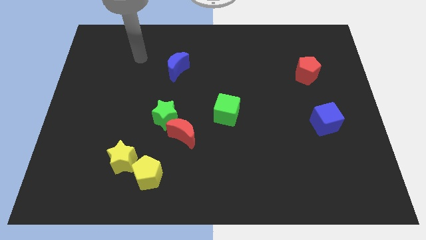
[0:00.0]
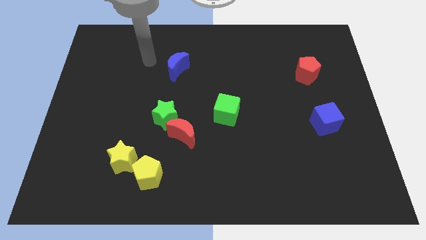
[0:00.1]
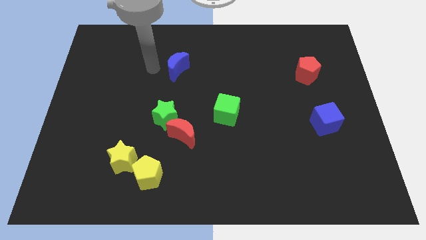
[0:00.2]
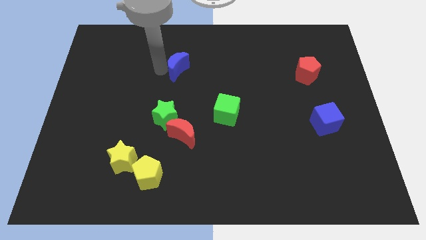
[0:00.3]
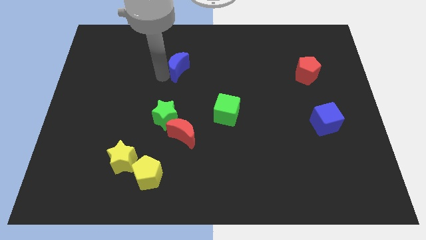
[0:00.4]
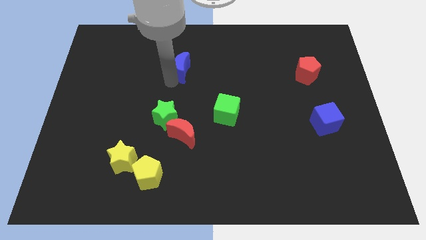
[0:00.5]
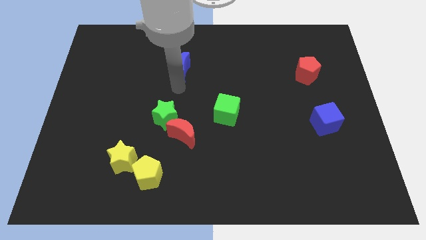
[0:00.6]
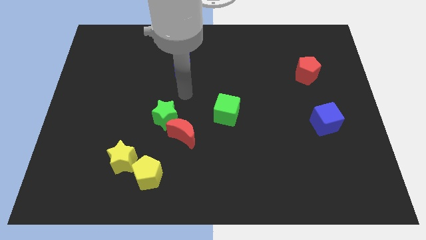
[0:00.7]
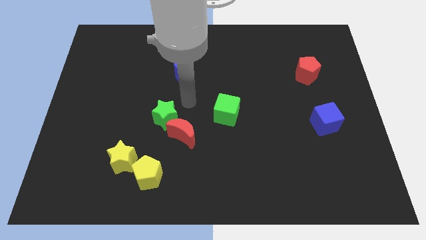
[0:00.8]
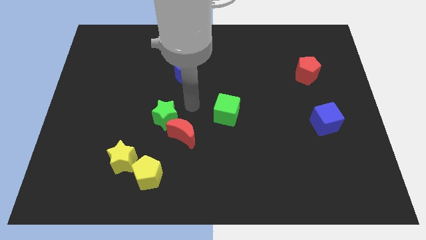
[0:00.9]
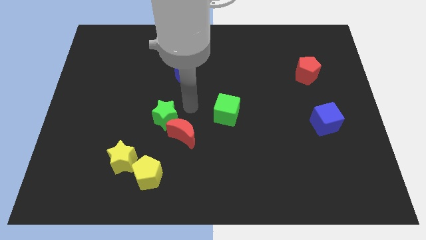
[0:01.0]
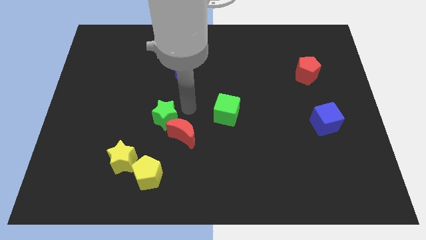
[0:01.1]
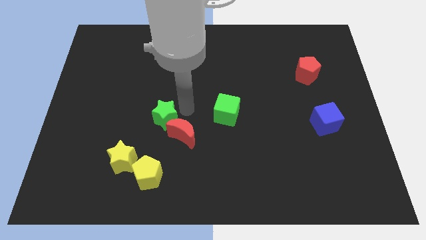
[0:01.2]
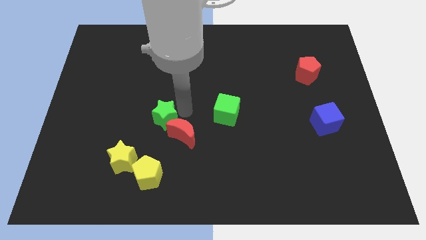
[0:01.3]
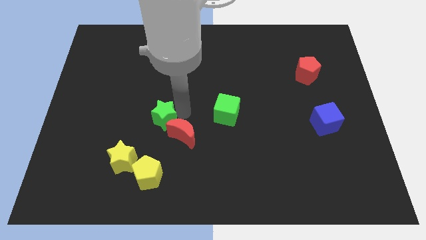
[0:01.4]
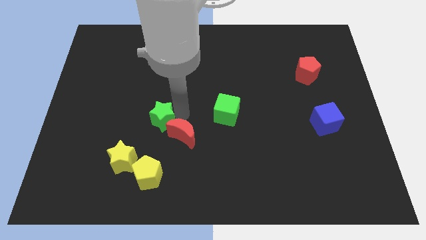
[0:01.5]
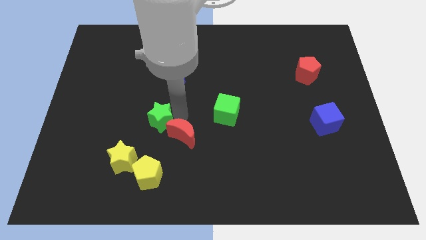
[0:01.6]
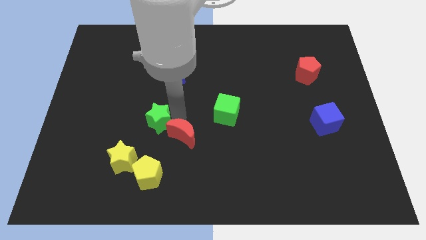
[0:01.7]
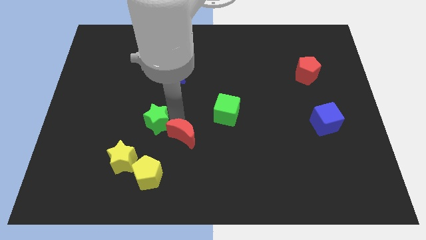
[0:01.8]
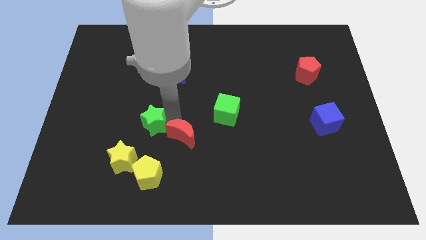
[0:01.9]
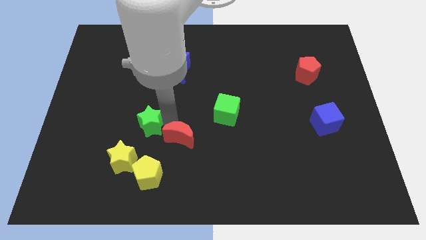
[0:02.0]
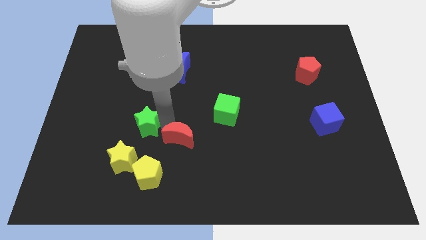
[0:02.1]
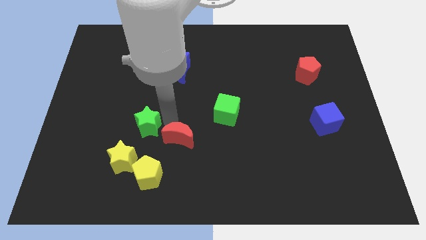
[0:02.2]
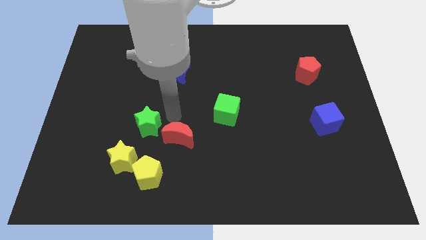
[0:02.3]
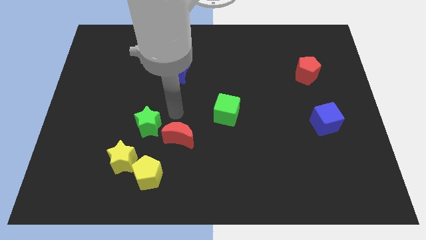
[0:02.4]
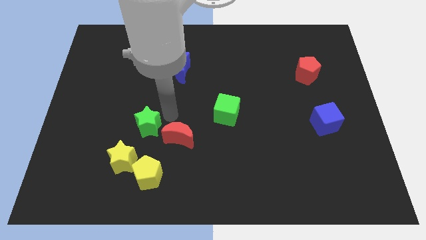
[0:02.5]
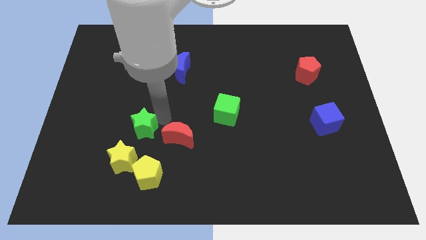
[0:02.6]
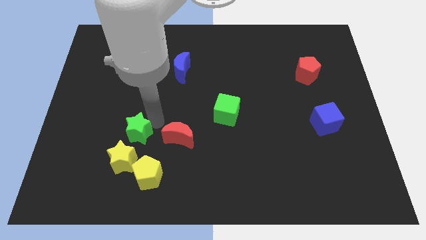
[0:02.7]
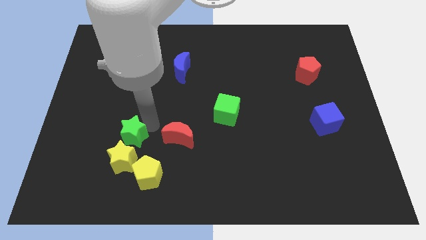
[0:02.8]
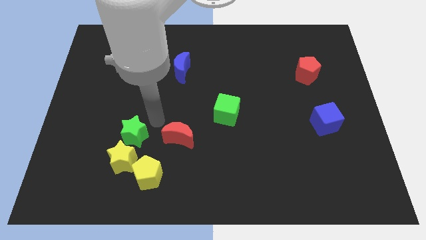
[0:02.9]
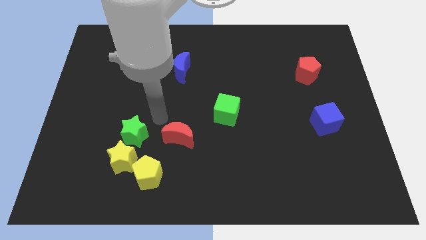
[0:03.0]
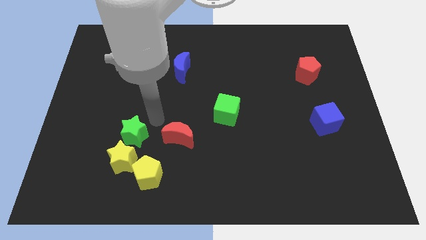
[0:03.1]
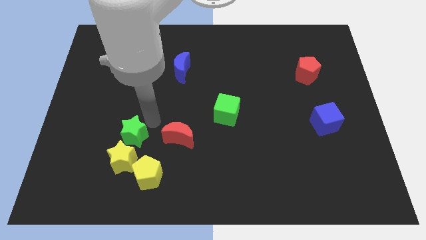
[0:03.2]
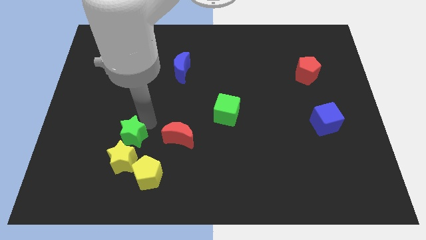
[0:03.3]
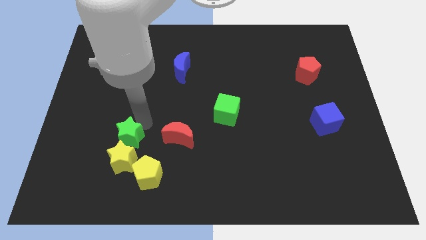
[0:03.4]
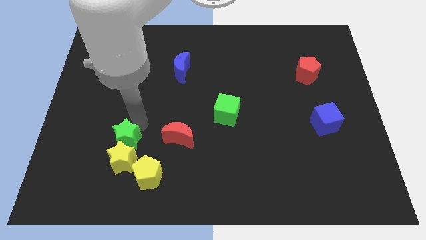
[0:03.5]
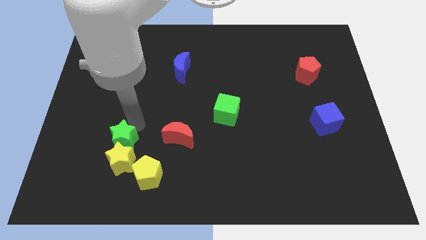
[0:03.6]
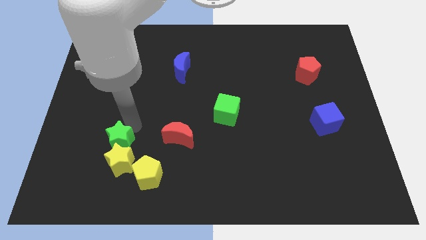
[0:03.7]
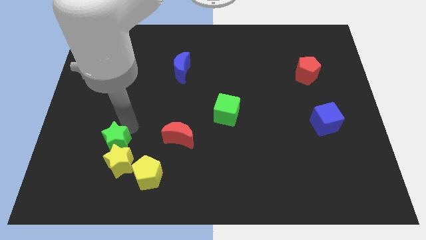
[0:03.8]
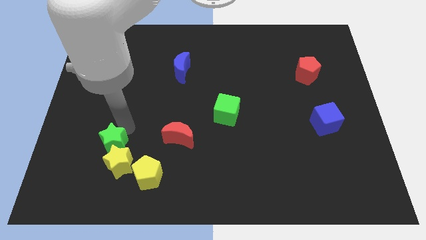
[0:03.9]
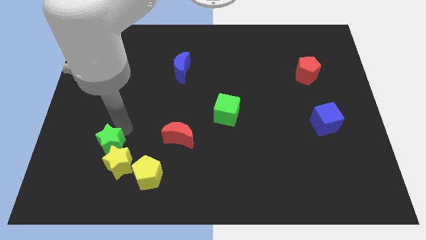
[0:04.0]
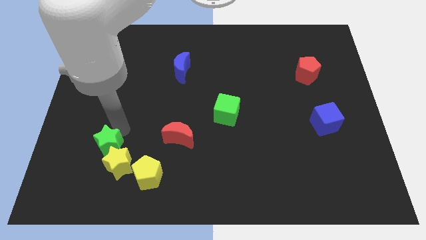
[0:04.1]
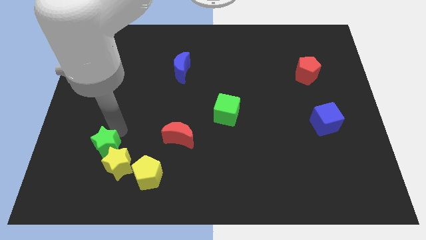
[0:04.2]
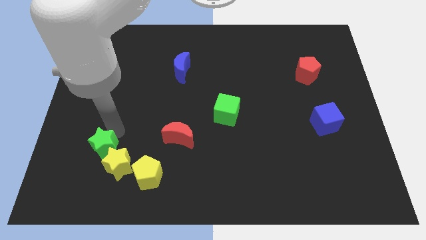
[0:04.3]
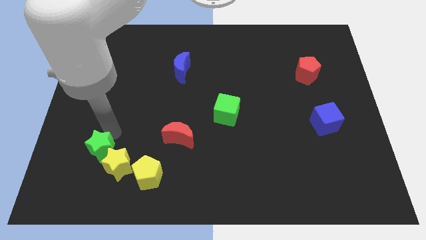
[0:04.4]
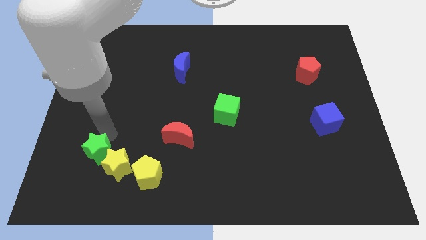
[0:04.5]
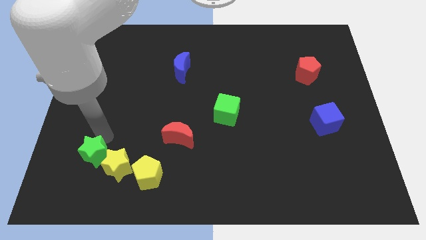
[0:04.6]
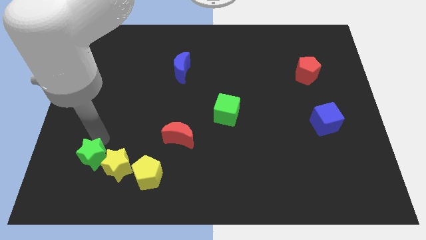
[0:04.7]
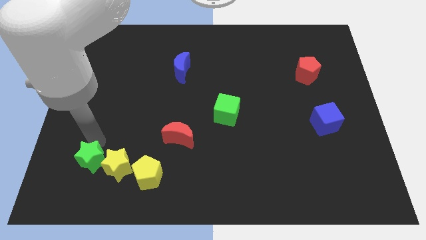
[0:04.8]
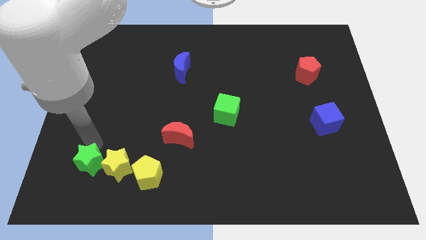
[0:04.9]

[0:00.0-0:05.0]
slide the green star to the bottom left side of the yellow star

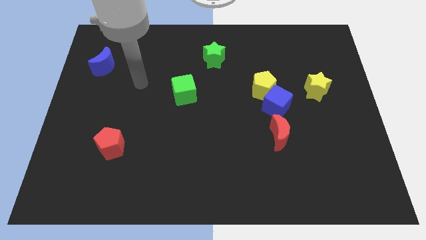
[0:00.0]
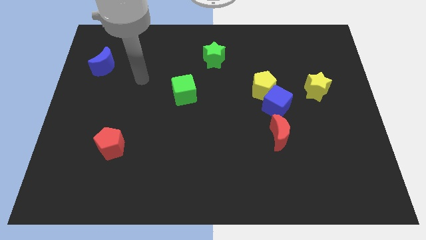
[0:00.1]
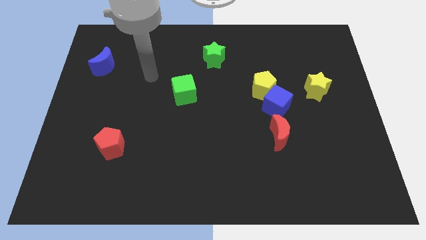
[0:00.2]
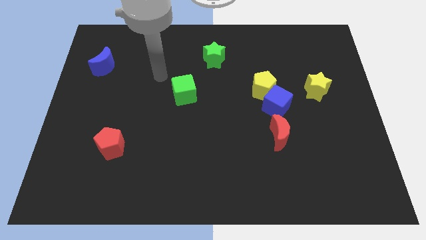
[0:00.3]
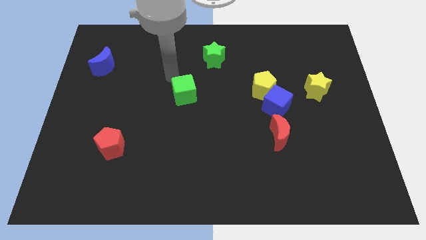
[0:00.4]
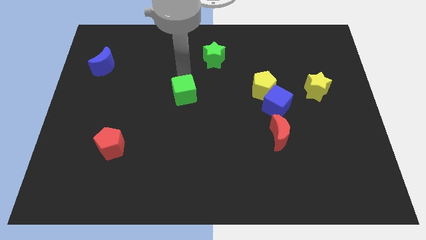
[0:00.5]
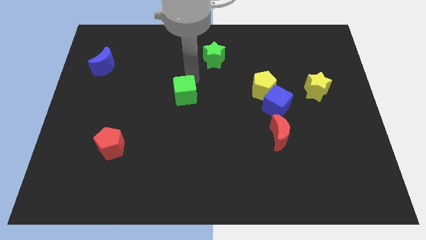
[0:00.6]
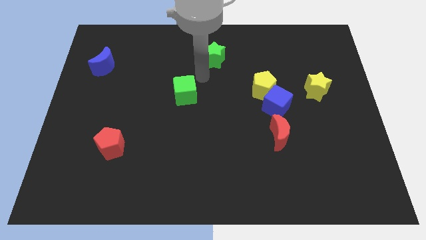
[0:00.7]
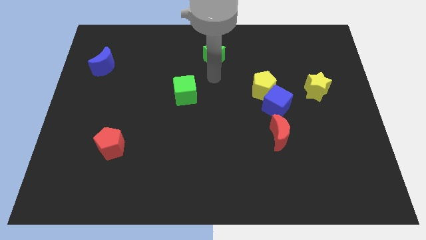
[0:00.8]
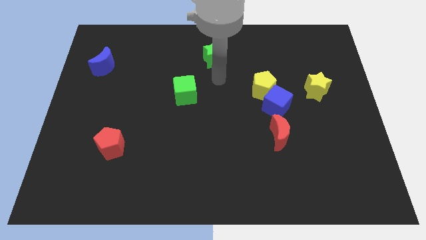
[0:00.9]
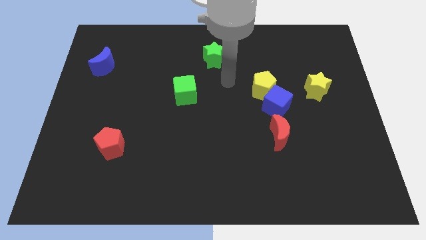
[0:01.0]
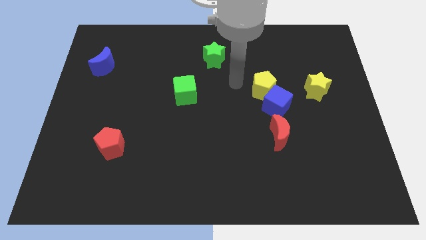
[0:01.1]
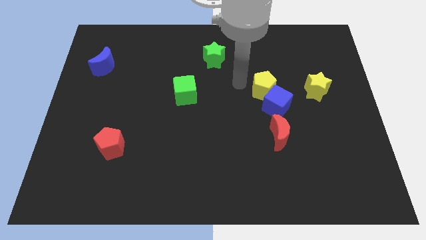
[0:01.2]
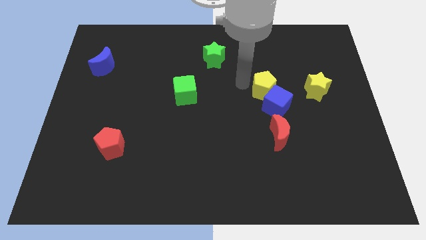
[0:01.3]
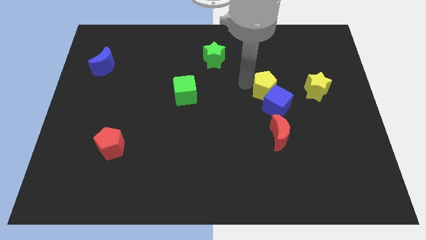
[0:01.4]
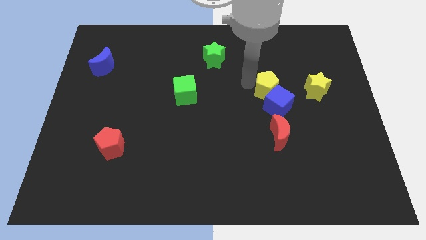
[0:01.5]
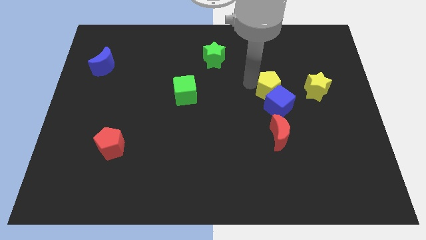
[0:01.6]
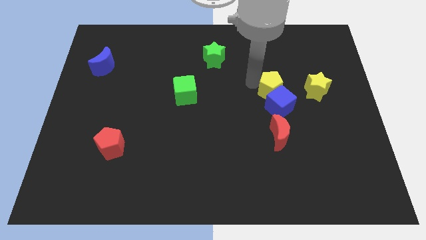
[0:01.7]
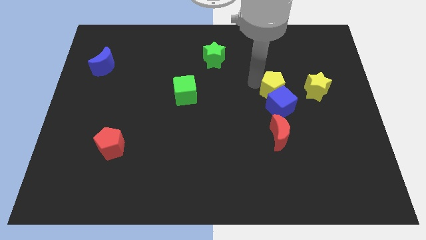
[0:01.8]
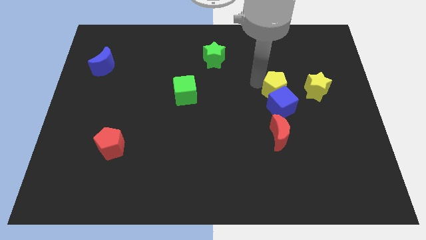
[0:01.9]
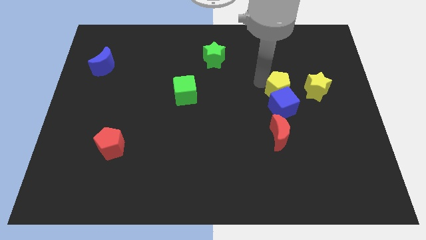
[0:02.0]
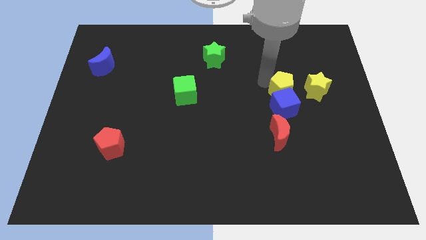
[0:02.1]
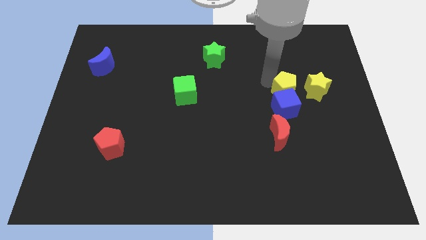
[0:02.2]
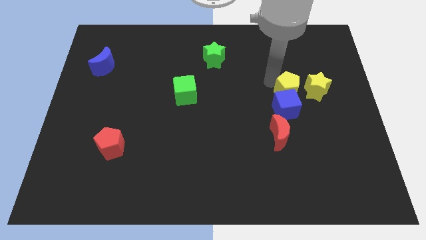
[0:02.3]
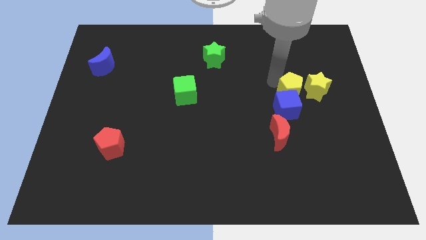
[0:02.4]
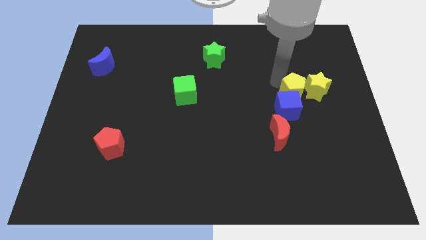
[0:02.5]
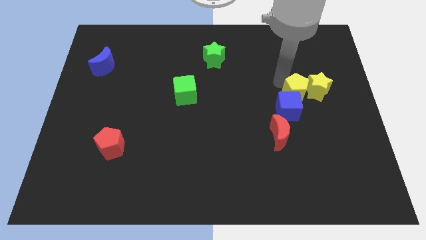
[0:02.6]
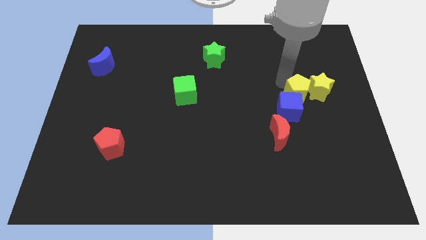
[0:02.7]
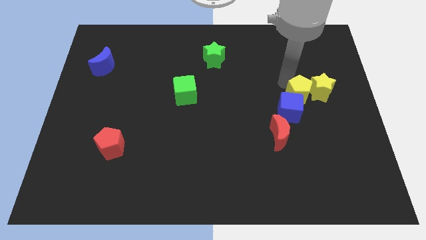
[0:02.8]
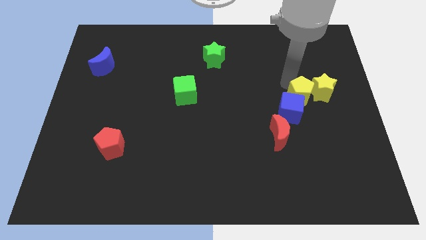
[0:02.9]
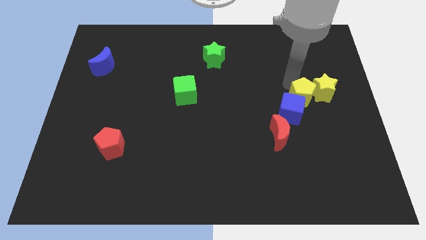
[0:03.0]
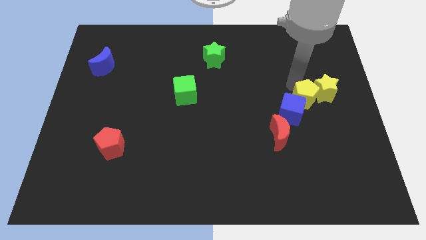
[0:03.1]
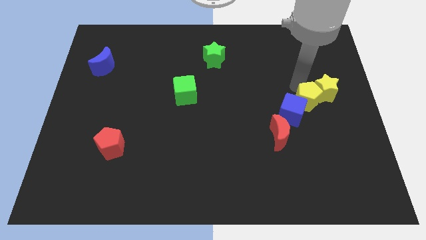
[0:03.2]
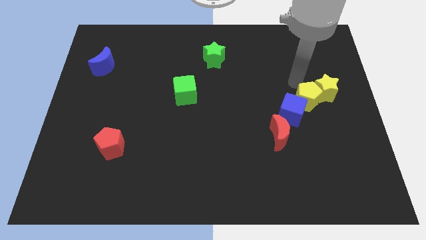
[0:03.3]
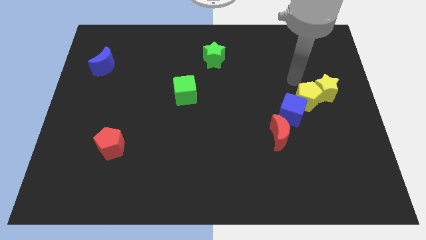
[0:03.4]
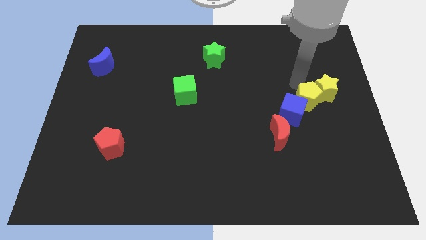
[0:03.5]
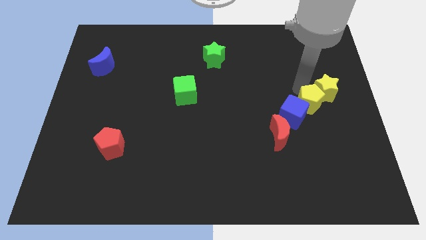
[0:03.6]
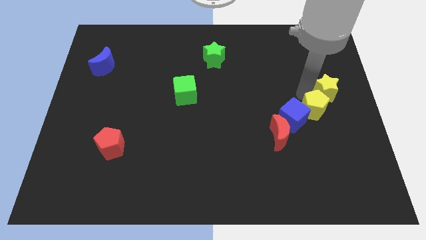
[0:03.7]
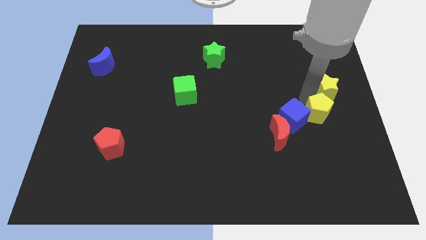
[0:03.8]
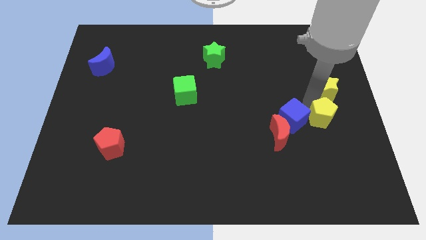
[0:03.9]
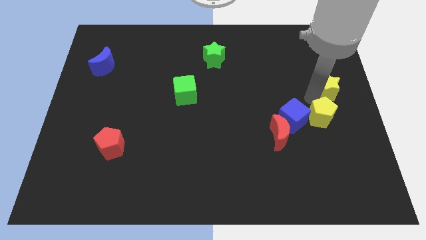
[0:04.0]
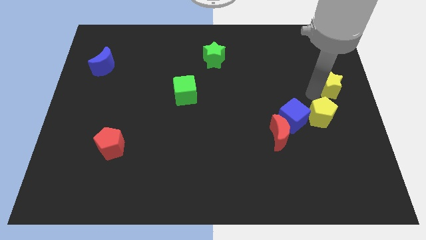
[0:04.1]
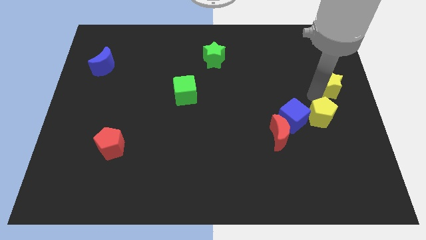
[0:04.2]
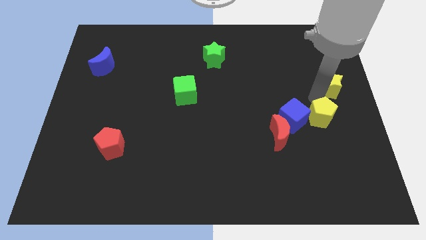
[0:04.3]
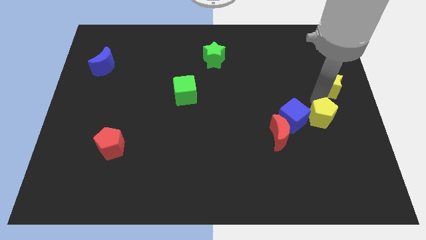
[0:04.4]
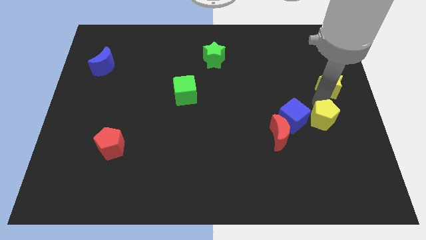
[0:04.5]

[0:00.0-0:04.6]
move the yellow pentagon to the right of the red moon
